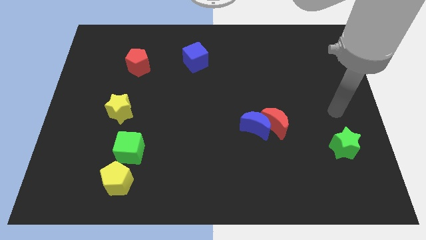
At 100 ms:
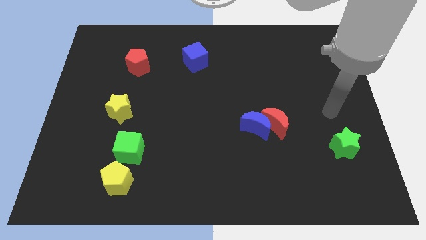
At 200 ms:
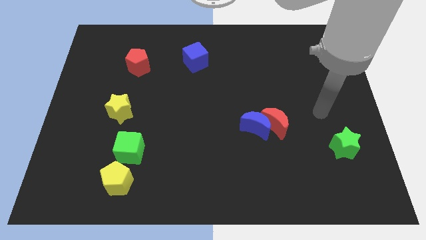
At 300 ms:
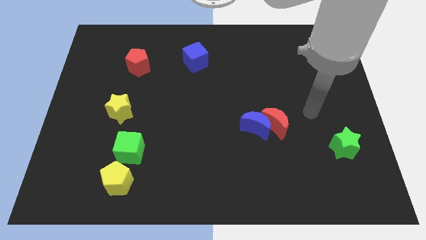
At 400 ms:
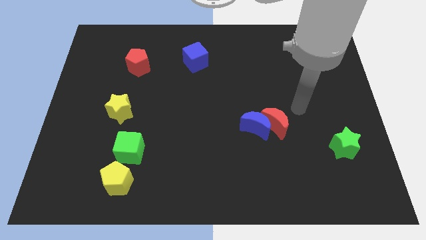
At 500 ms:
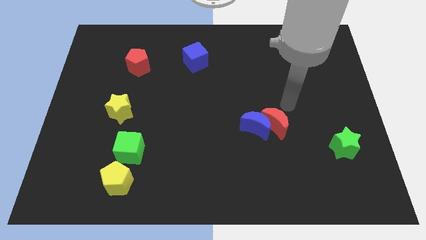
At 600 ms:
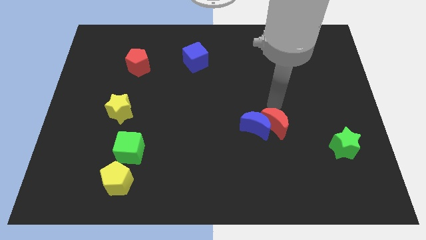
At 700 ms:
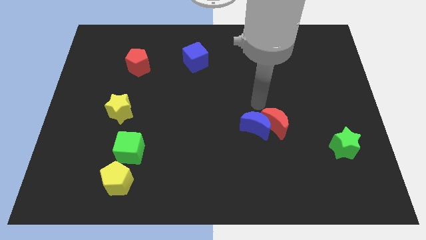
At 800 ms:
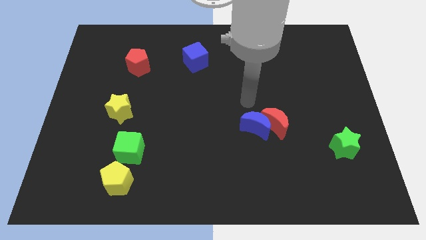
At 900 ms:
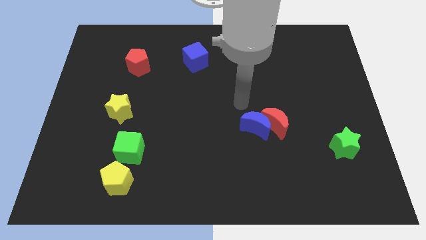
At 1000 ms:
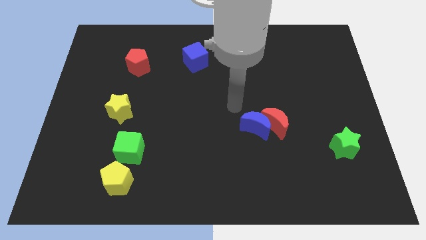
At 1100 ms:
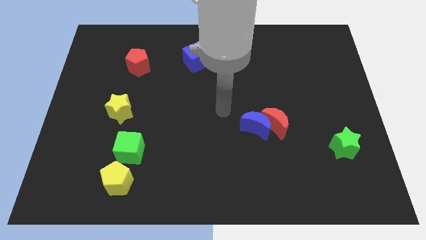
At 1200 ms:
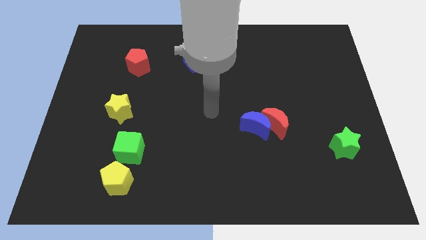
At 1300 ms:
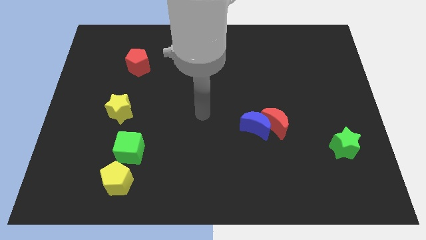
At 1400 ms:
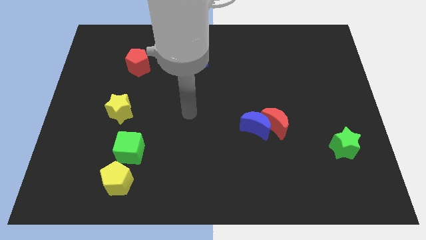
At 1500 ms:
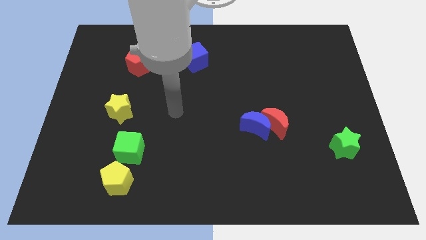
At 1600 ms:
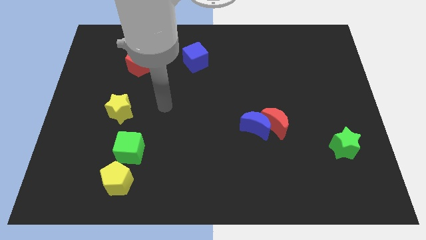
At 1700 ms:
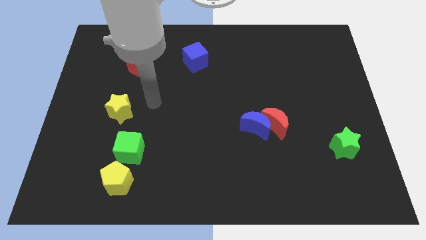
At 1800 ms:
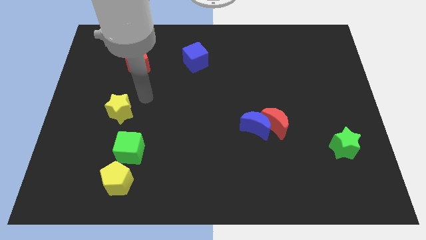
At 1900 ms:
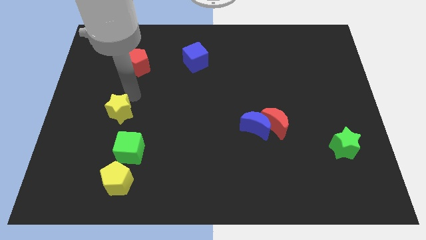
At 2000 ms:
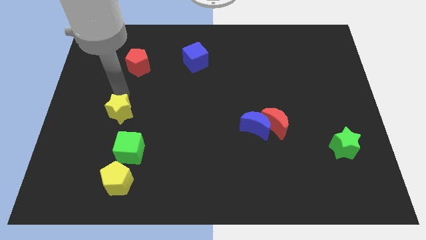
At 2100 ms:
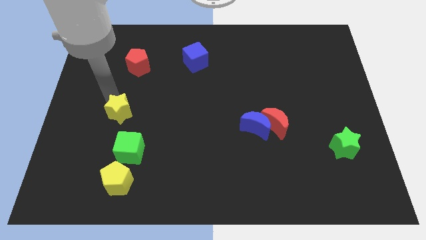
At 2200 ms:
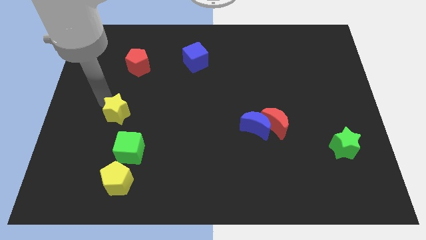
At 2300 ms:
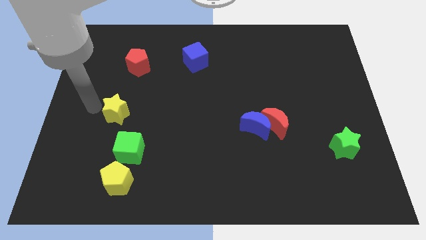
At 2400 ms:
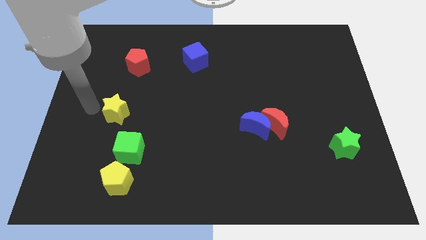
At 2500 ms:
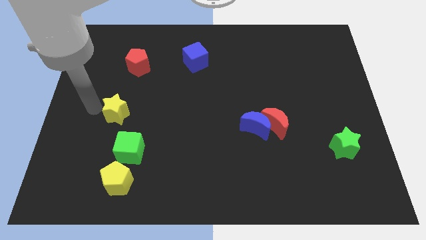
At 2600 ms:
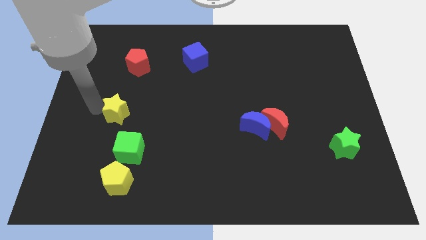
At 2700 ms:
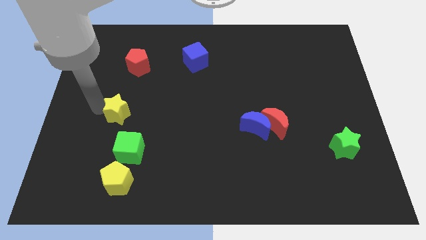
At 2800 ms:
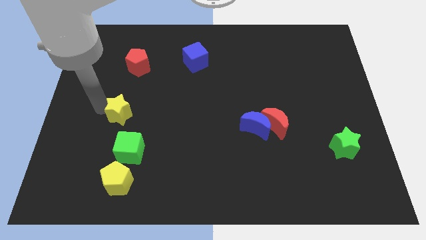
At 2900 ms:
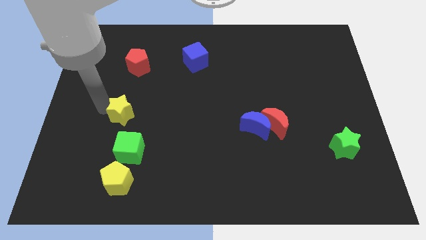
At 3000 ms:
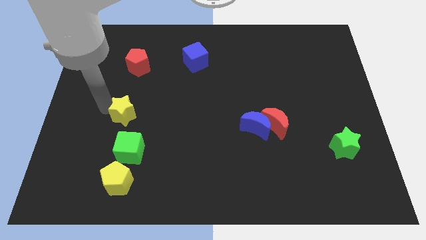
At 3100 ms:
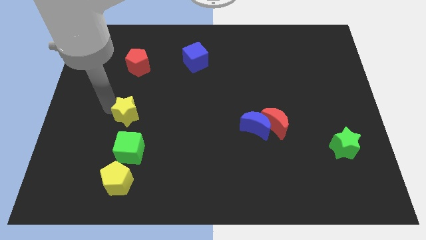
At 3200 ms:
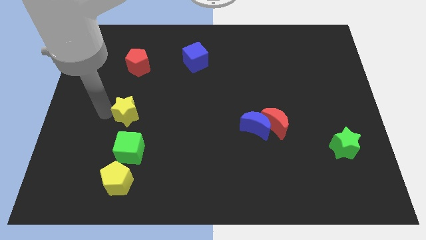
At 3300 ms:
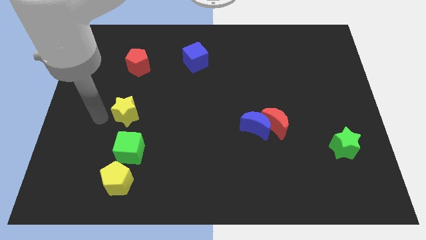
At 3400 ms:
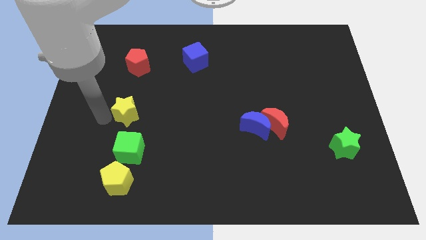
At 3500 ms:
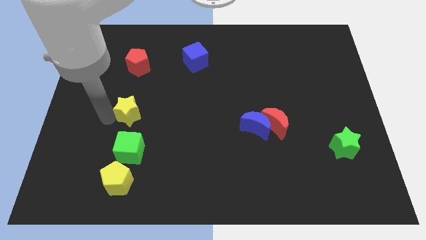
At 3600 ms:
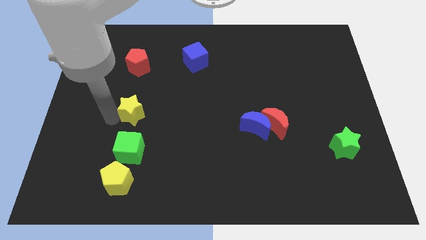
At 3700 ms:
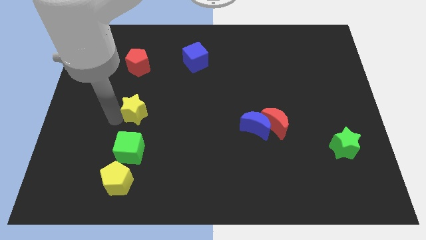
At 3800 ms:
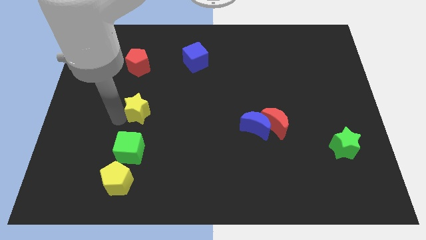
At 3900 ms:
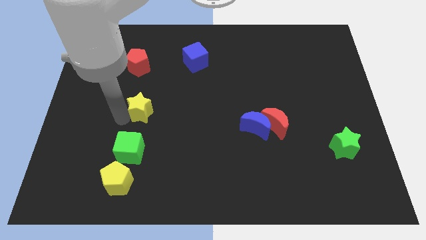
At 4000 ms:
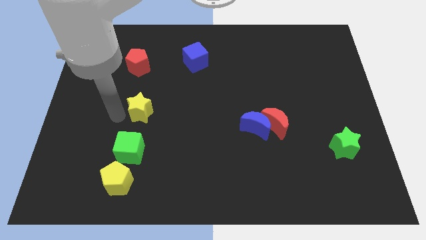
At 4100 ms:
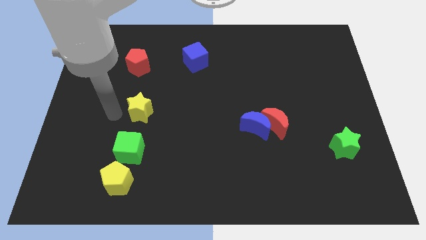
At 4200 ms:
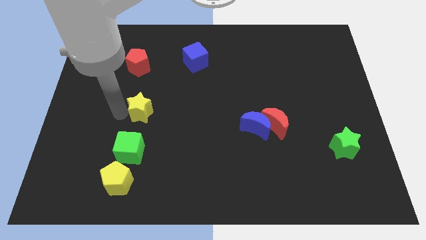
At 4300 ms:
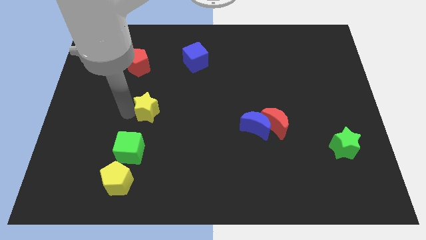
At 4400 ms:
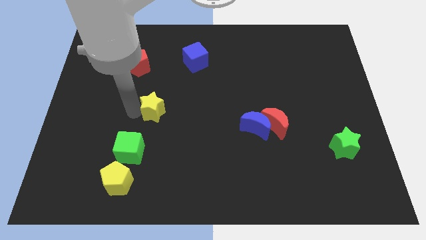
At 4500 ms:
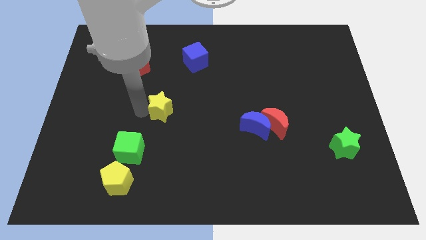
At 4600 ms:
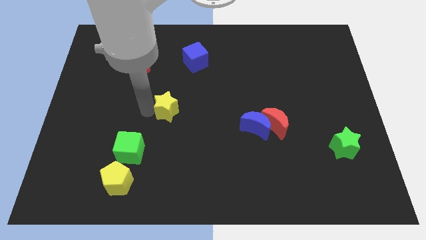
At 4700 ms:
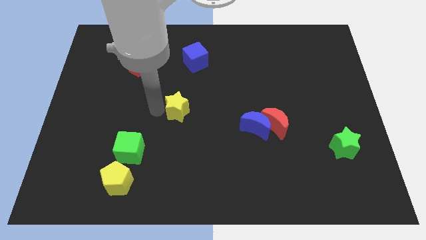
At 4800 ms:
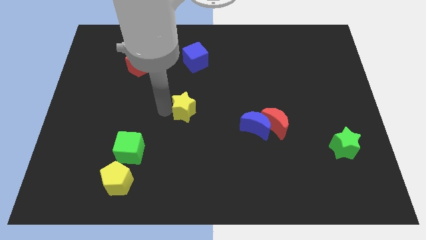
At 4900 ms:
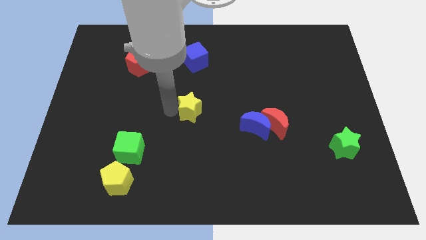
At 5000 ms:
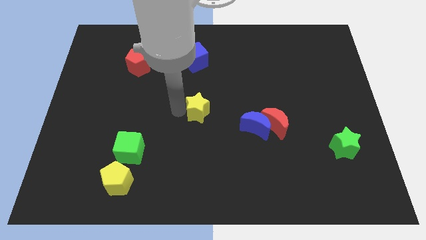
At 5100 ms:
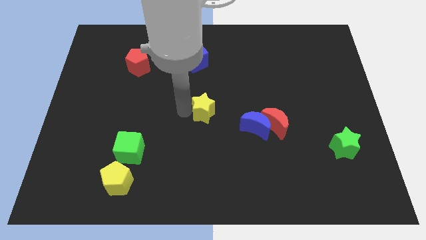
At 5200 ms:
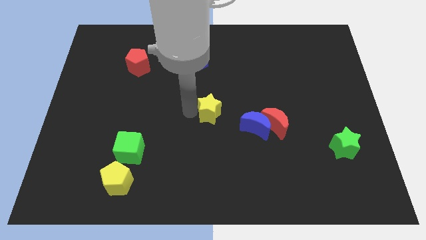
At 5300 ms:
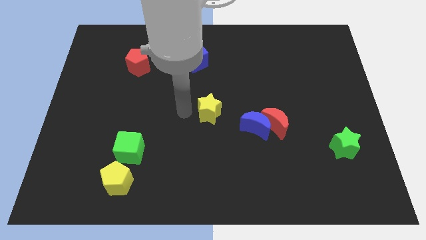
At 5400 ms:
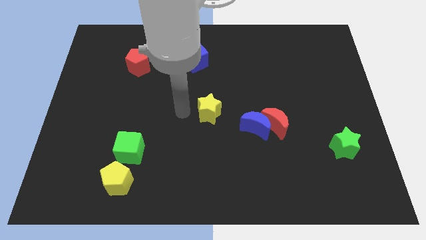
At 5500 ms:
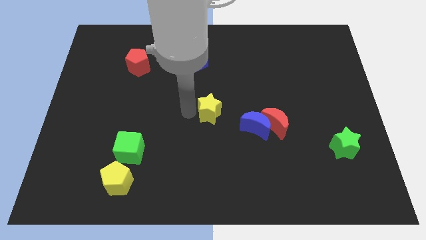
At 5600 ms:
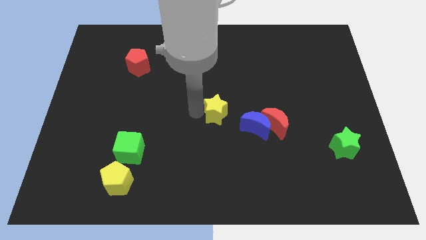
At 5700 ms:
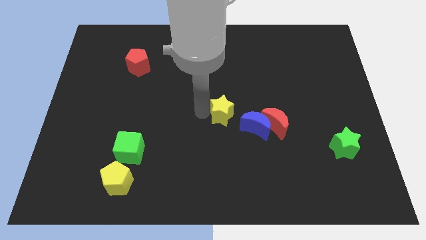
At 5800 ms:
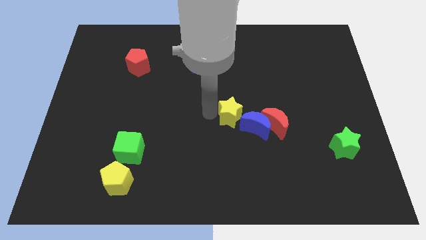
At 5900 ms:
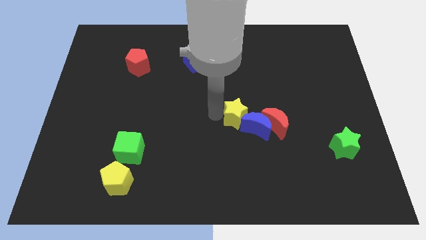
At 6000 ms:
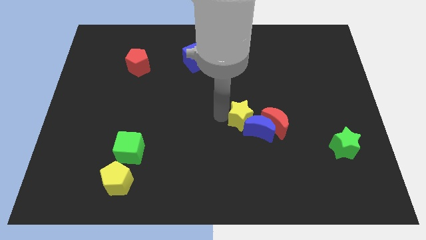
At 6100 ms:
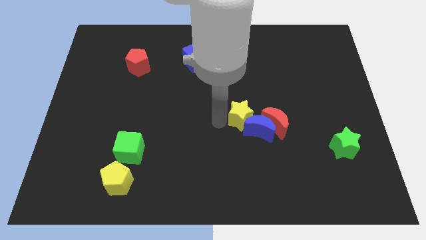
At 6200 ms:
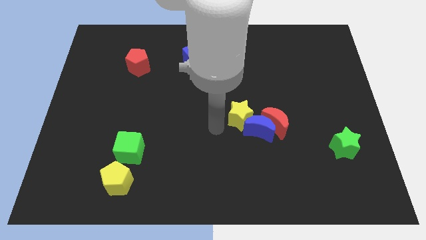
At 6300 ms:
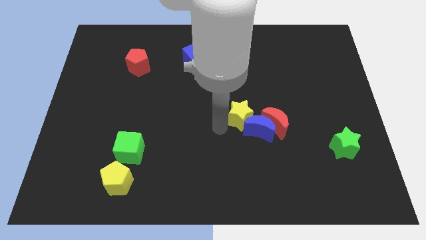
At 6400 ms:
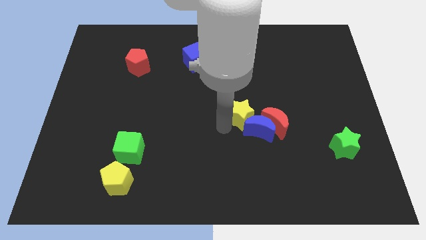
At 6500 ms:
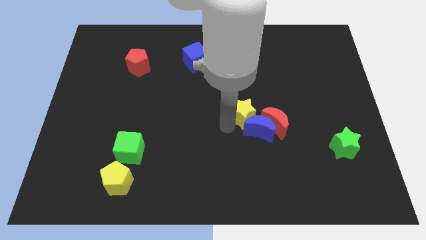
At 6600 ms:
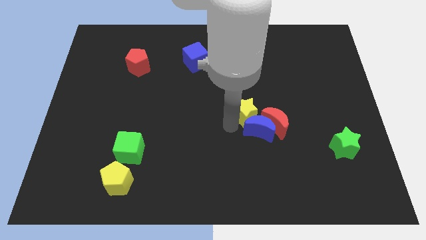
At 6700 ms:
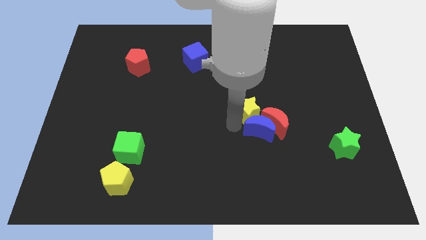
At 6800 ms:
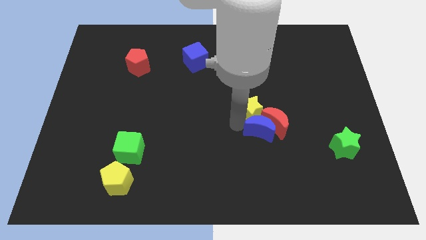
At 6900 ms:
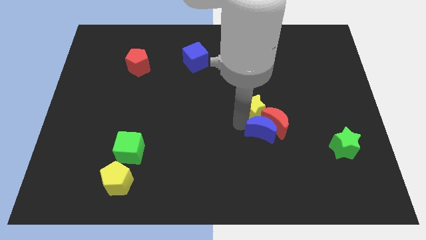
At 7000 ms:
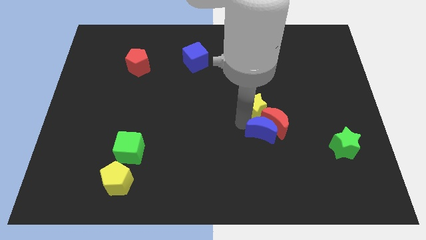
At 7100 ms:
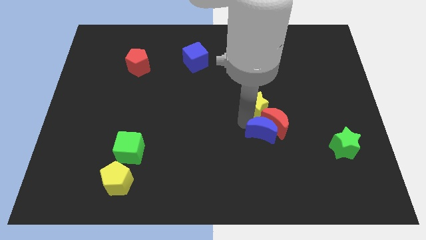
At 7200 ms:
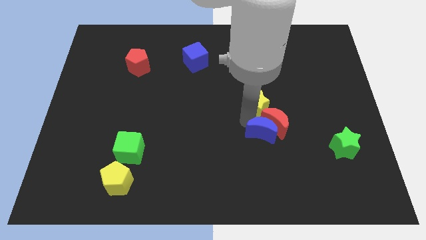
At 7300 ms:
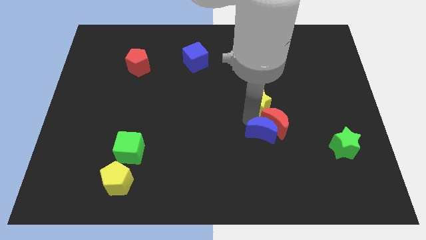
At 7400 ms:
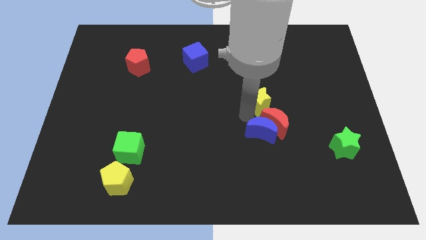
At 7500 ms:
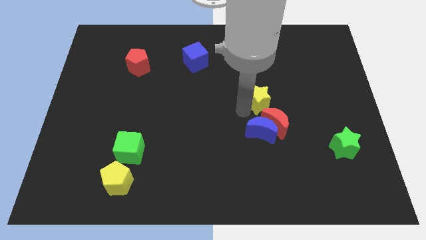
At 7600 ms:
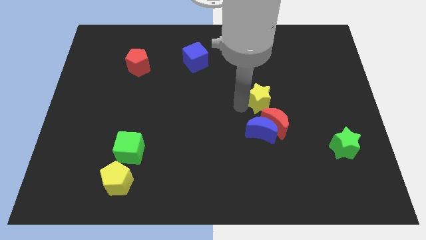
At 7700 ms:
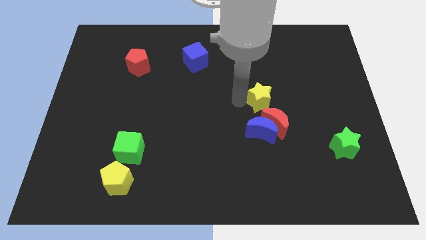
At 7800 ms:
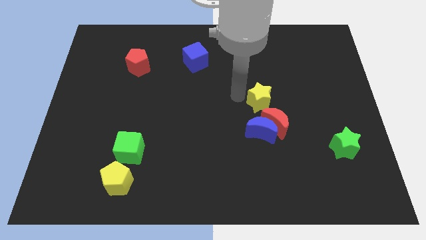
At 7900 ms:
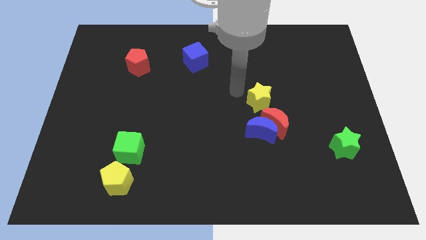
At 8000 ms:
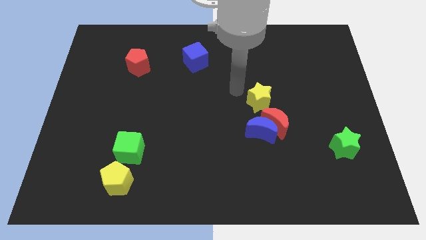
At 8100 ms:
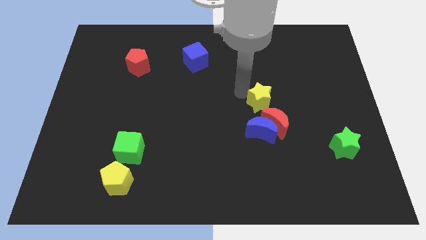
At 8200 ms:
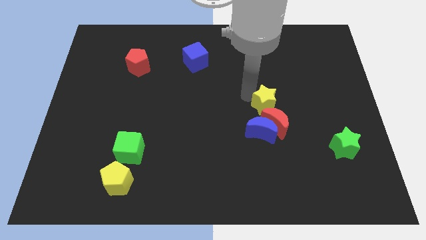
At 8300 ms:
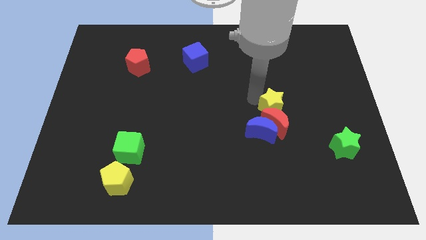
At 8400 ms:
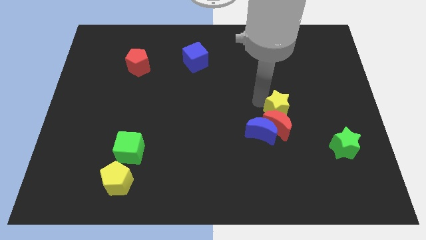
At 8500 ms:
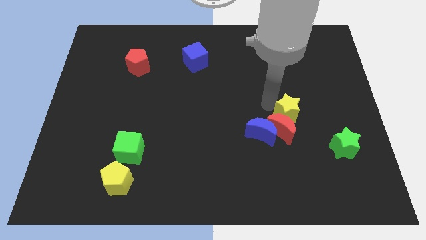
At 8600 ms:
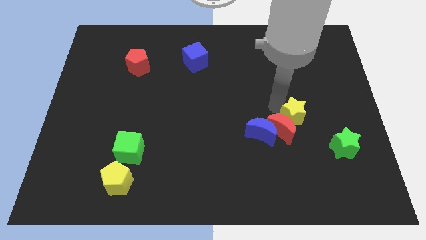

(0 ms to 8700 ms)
move the yellow star right of the blue moon
